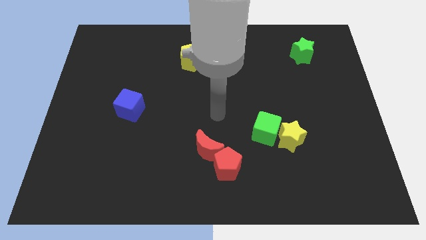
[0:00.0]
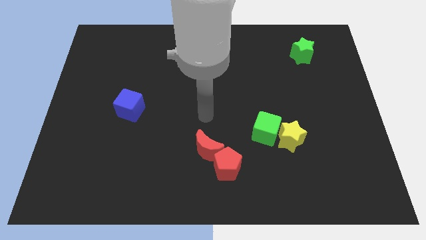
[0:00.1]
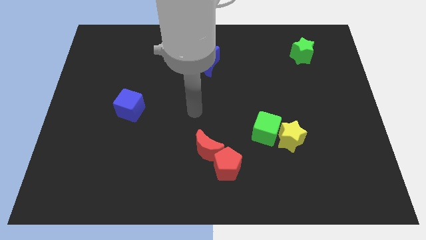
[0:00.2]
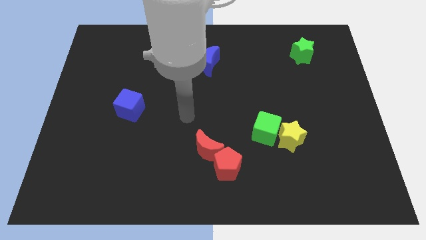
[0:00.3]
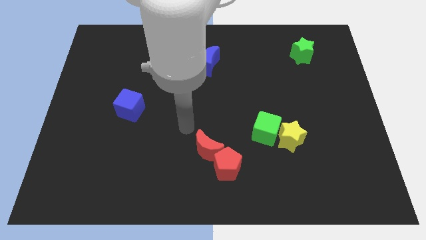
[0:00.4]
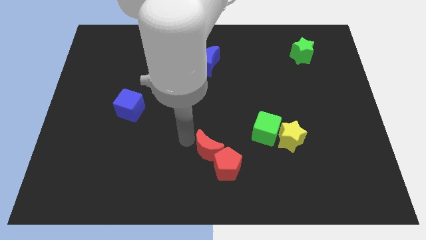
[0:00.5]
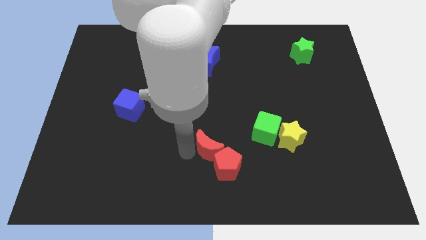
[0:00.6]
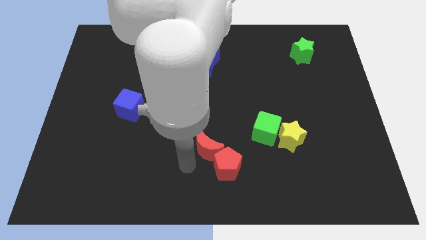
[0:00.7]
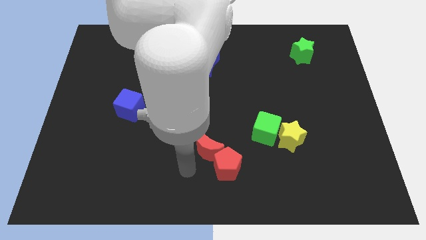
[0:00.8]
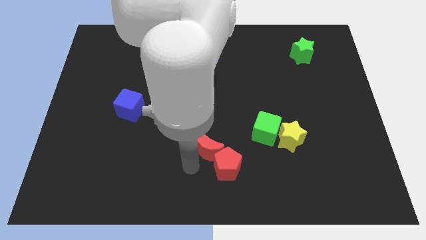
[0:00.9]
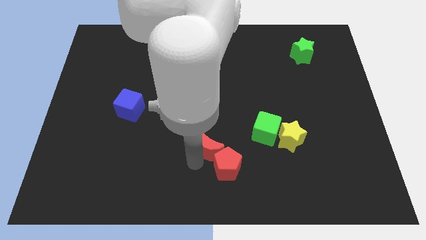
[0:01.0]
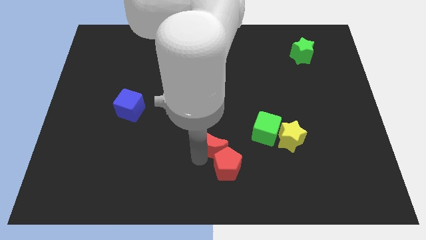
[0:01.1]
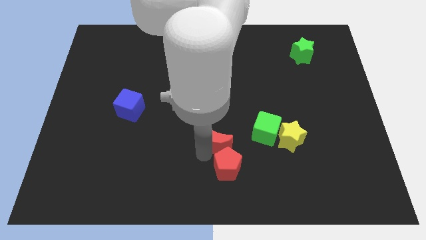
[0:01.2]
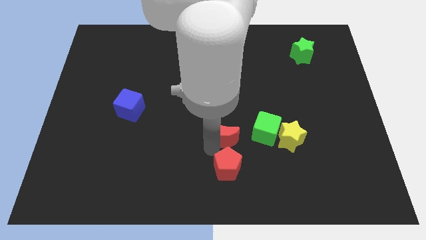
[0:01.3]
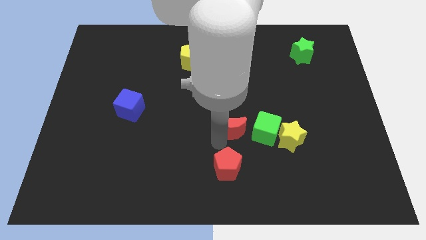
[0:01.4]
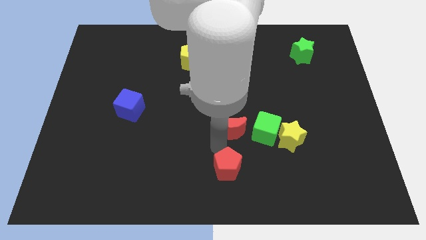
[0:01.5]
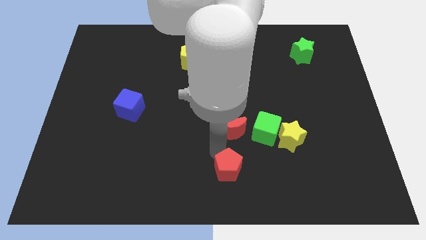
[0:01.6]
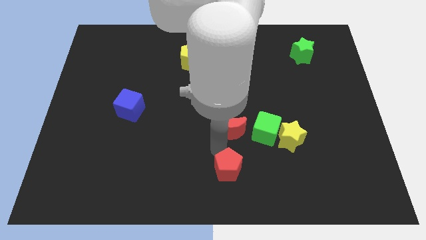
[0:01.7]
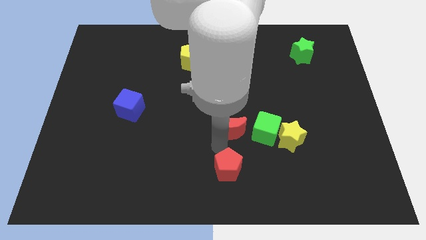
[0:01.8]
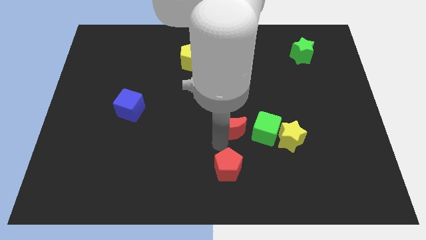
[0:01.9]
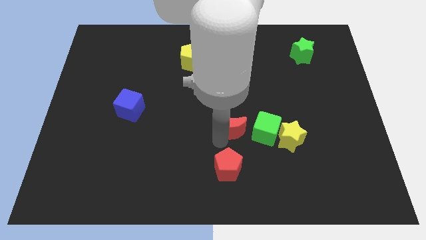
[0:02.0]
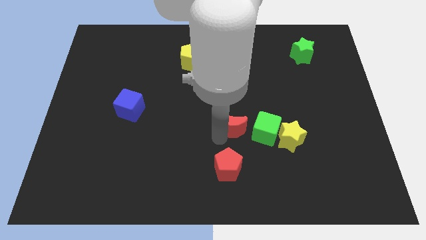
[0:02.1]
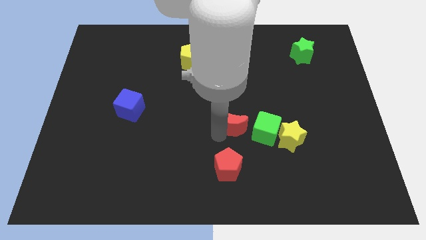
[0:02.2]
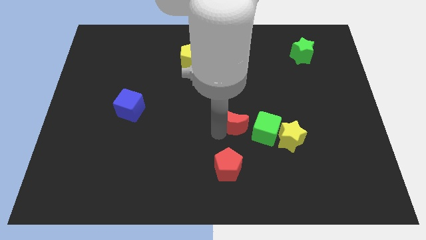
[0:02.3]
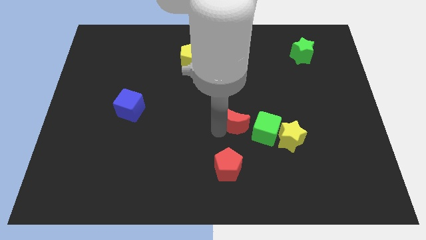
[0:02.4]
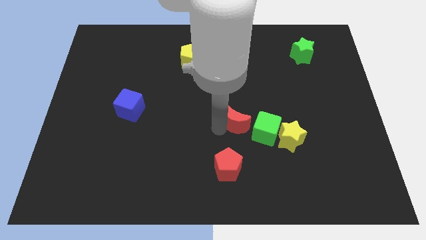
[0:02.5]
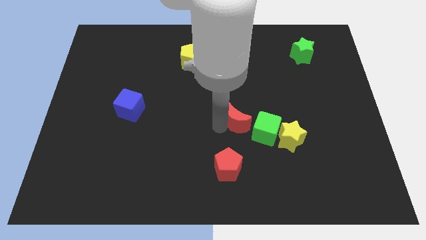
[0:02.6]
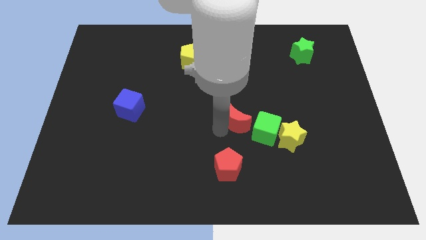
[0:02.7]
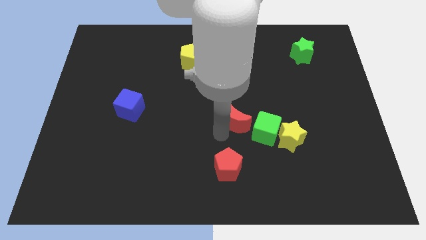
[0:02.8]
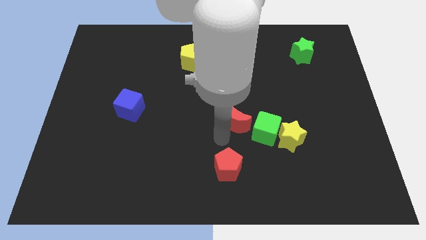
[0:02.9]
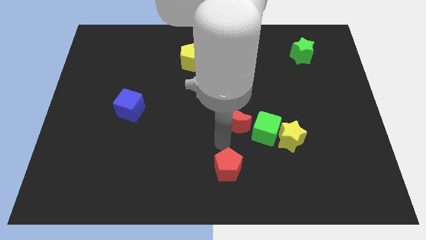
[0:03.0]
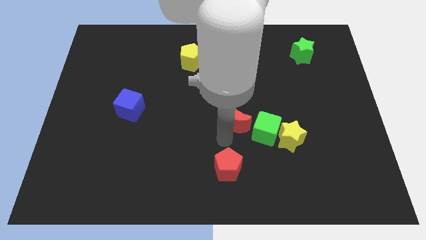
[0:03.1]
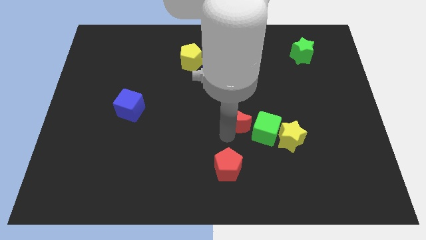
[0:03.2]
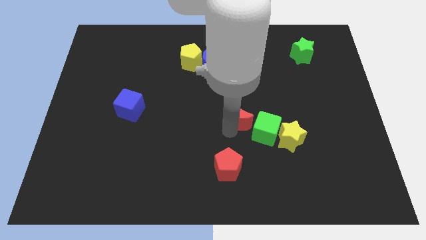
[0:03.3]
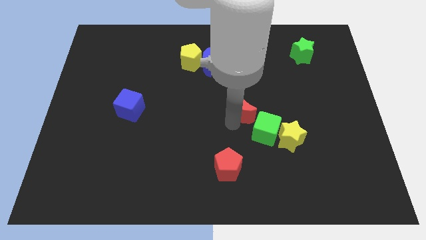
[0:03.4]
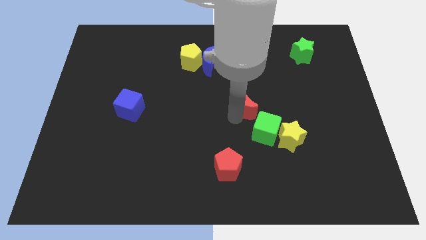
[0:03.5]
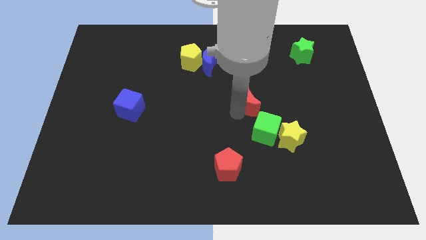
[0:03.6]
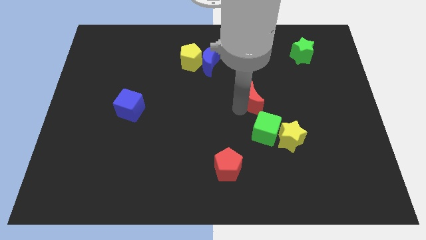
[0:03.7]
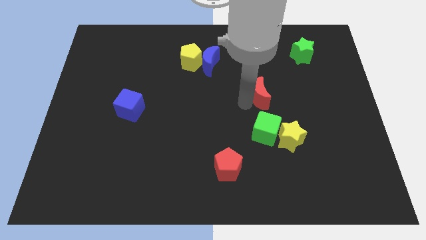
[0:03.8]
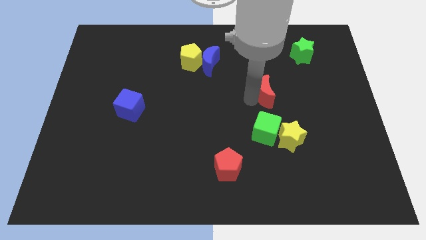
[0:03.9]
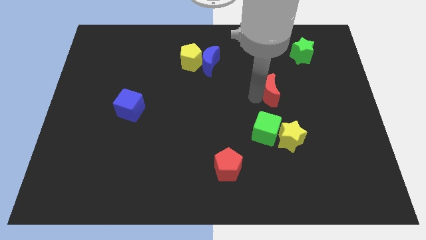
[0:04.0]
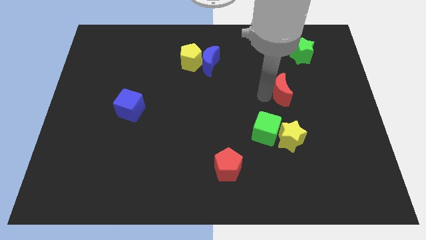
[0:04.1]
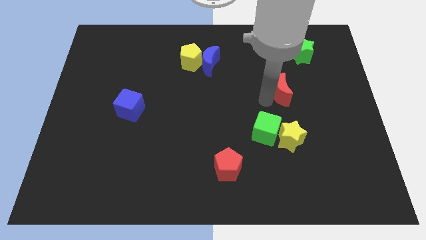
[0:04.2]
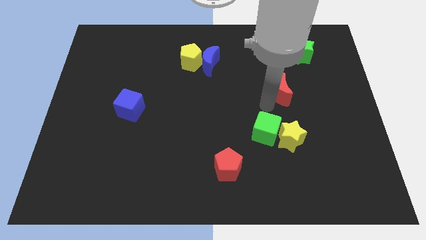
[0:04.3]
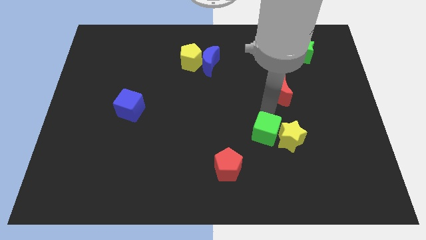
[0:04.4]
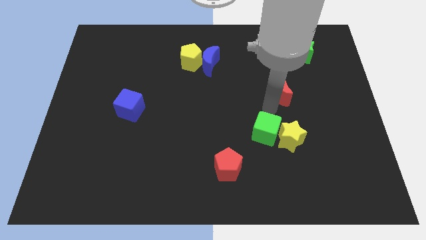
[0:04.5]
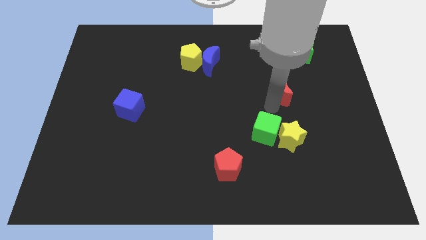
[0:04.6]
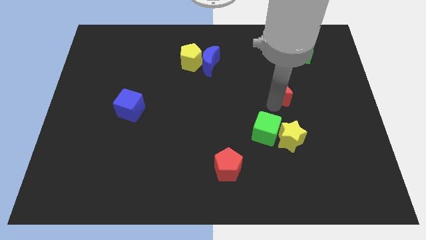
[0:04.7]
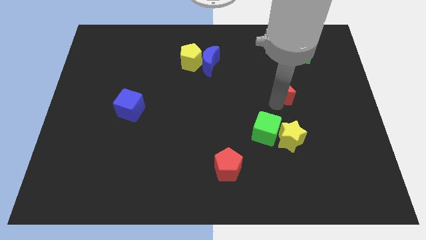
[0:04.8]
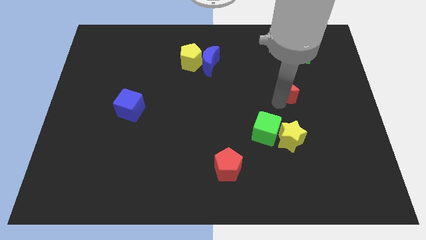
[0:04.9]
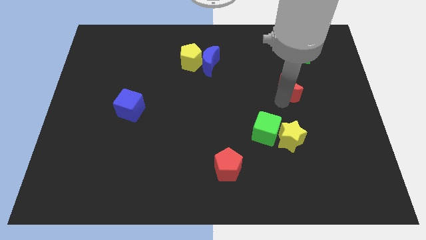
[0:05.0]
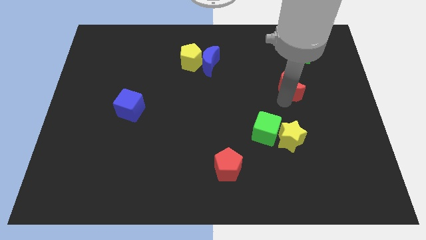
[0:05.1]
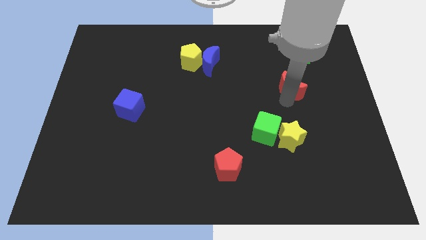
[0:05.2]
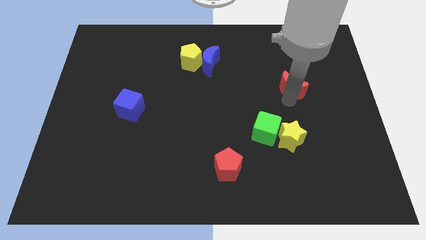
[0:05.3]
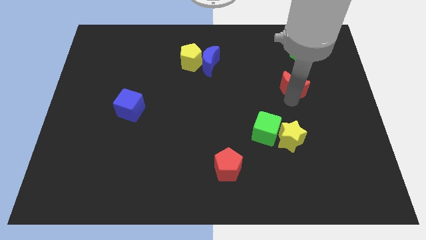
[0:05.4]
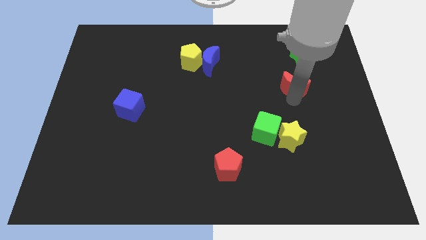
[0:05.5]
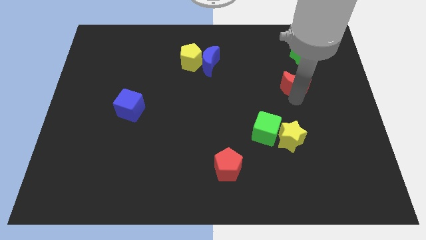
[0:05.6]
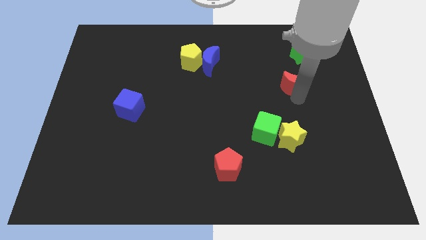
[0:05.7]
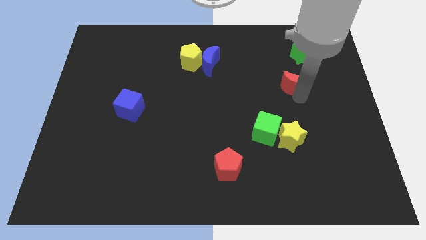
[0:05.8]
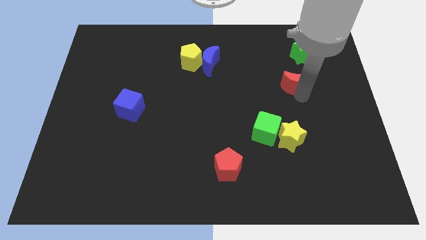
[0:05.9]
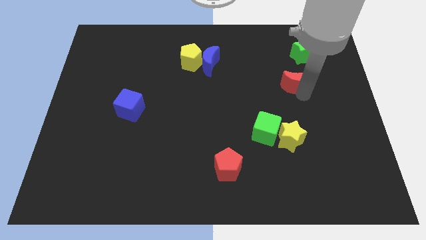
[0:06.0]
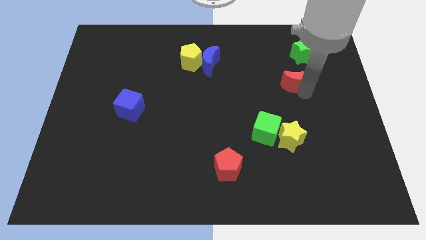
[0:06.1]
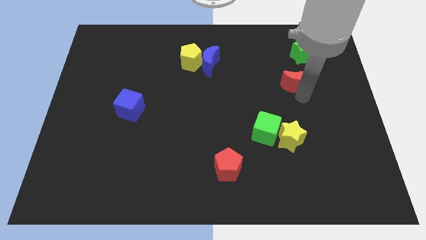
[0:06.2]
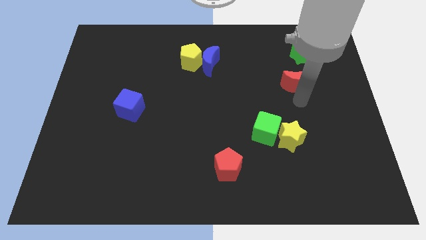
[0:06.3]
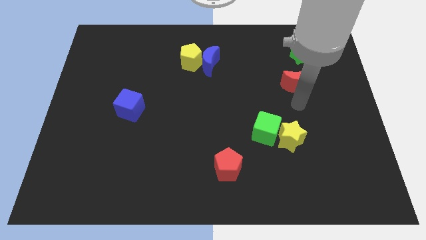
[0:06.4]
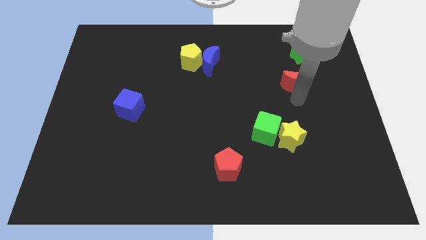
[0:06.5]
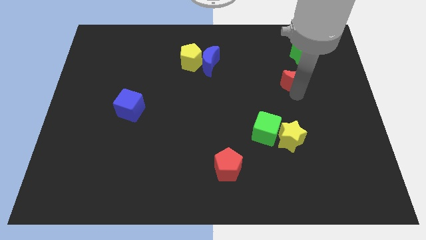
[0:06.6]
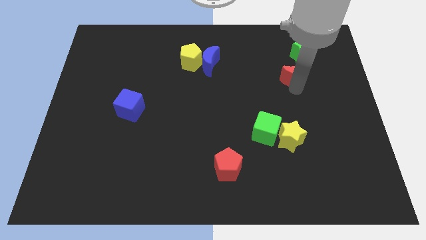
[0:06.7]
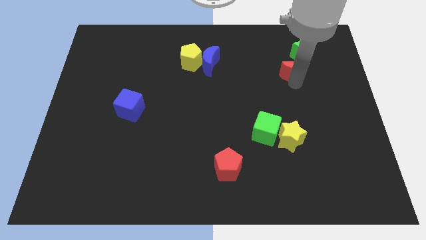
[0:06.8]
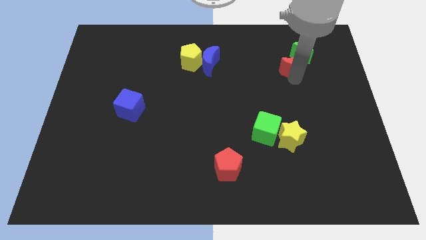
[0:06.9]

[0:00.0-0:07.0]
move the red moon next to the green star

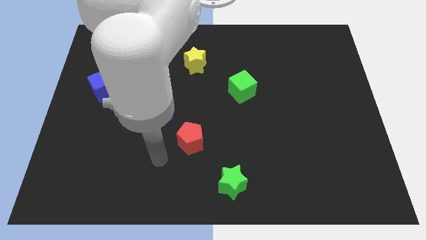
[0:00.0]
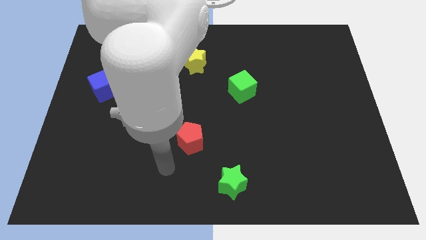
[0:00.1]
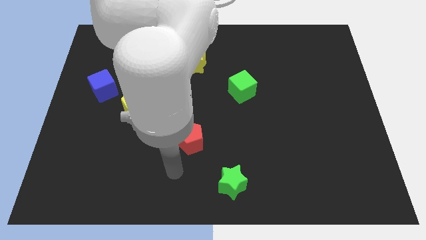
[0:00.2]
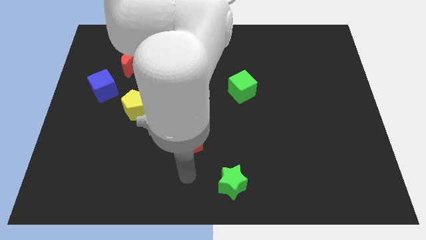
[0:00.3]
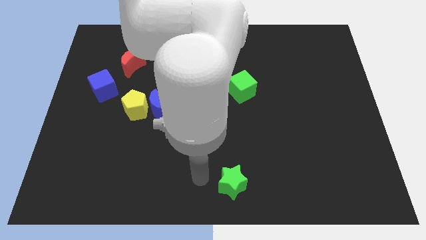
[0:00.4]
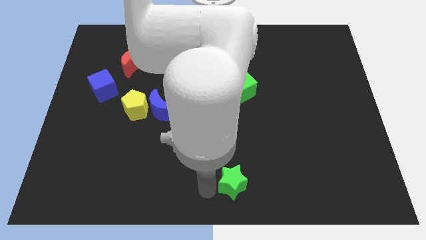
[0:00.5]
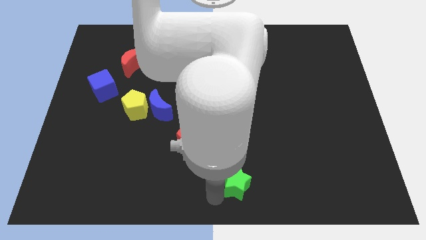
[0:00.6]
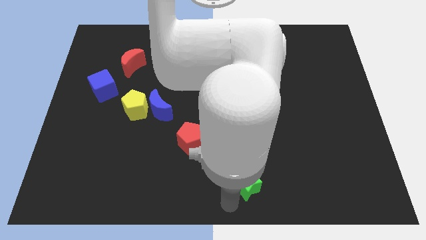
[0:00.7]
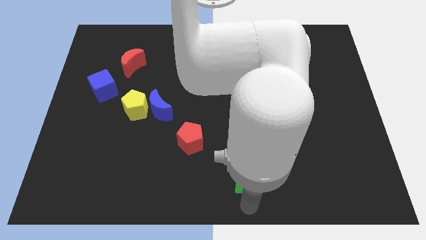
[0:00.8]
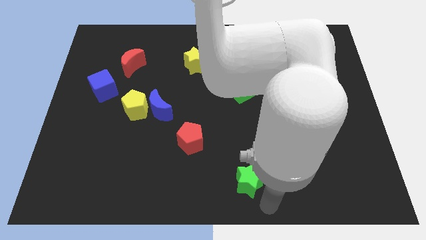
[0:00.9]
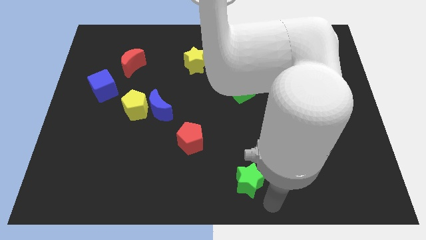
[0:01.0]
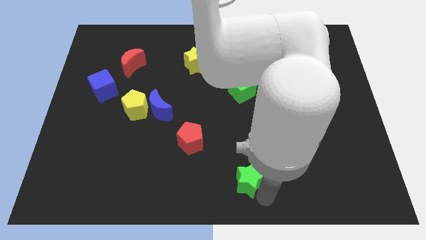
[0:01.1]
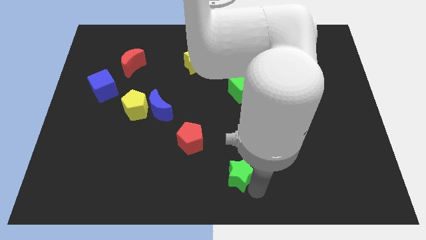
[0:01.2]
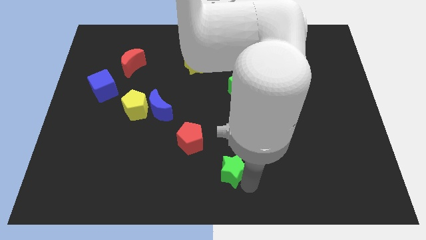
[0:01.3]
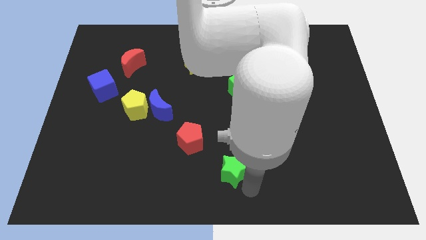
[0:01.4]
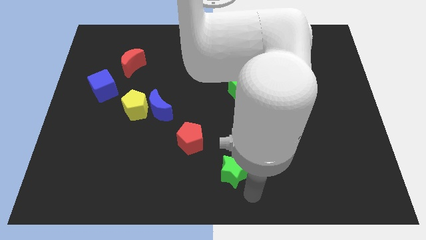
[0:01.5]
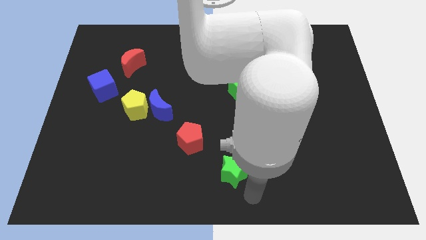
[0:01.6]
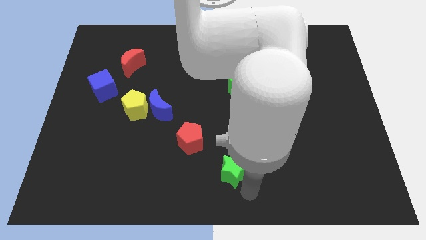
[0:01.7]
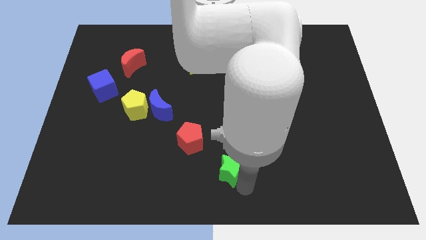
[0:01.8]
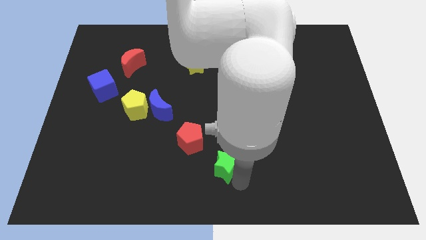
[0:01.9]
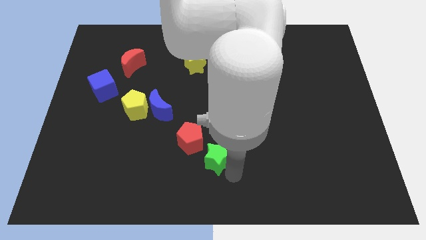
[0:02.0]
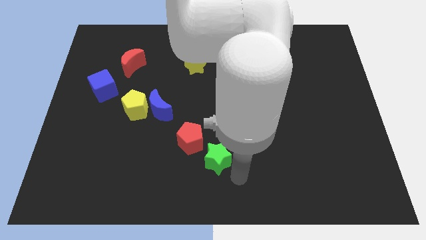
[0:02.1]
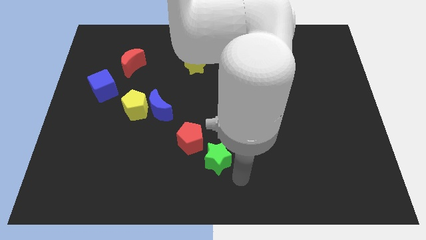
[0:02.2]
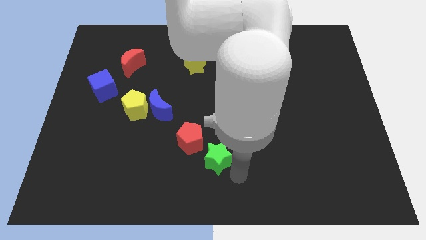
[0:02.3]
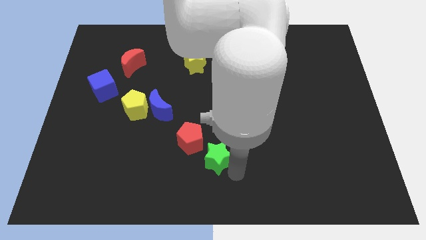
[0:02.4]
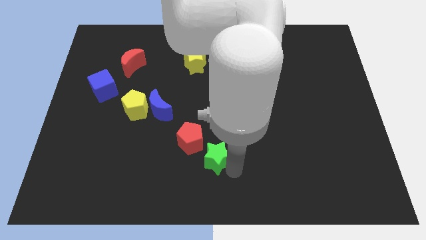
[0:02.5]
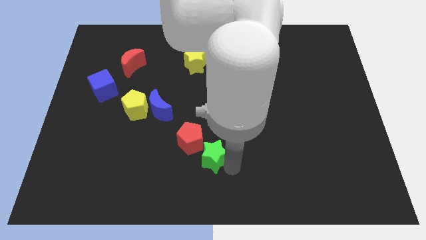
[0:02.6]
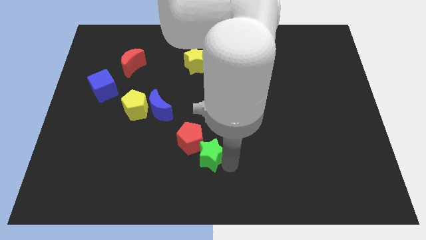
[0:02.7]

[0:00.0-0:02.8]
slide the green star towards the red pentagon
